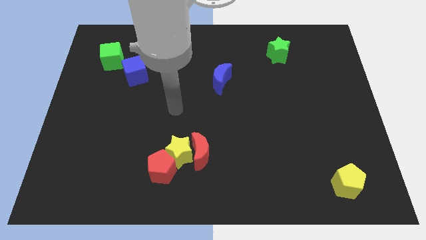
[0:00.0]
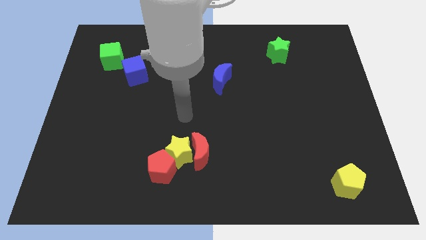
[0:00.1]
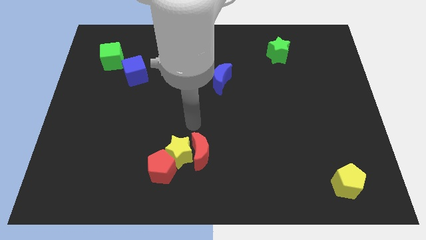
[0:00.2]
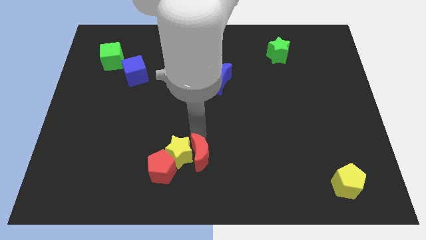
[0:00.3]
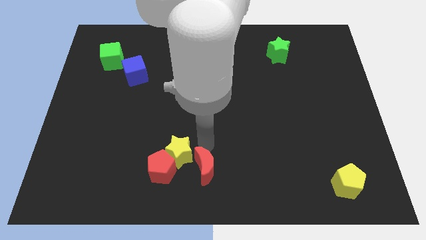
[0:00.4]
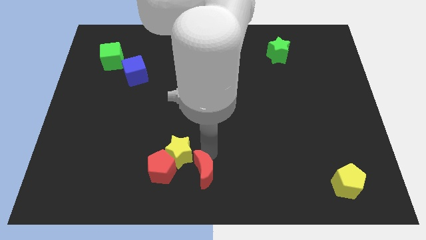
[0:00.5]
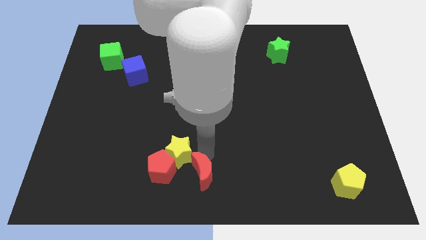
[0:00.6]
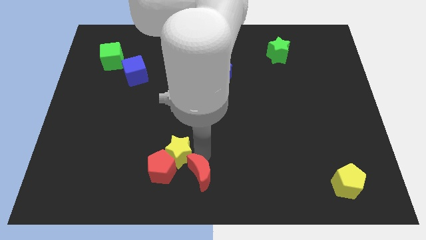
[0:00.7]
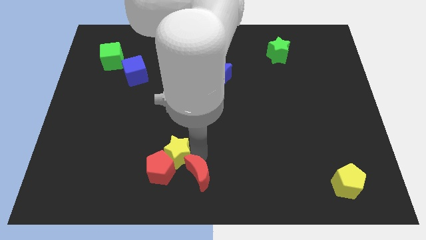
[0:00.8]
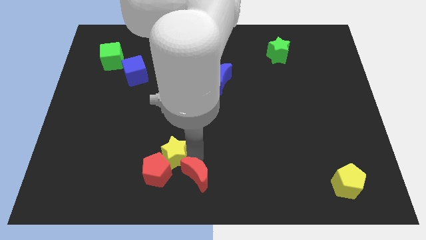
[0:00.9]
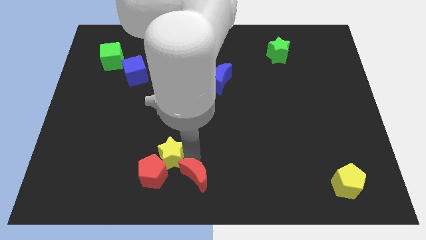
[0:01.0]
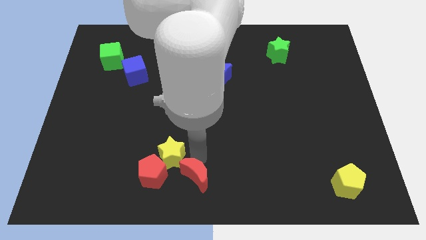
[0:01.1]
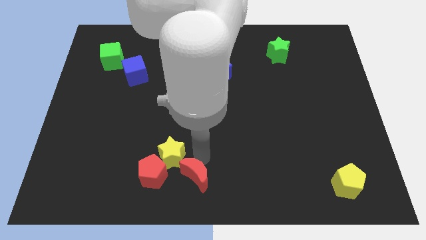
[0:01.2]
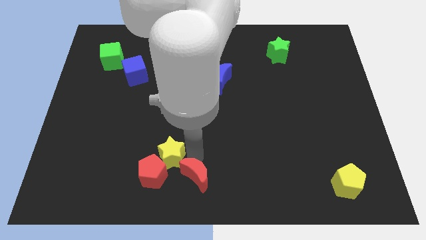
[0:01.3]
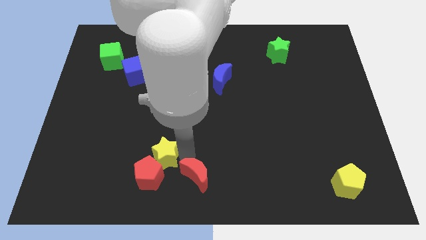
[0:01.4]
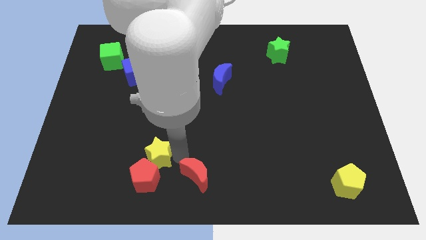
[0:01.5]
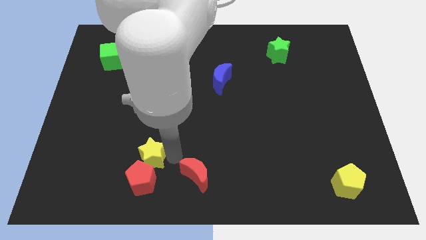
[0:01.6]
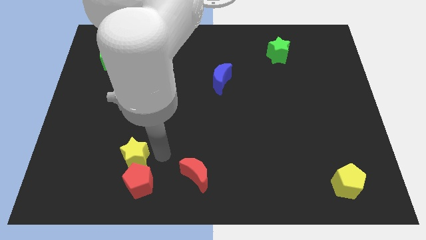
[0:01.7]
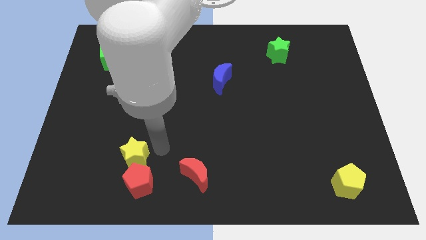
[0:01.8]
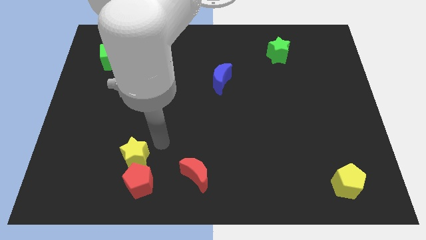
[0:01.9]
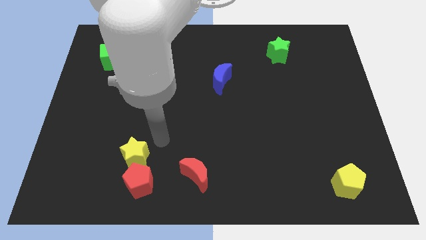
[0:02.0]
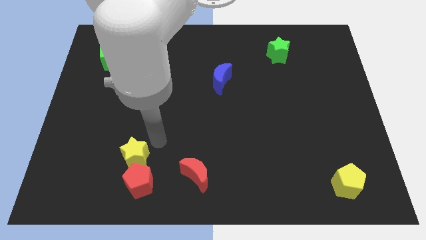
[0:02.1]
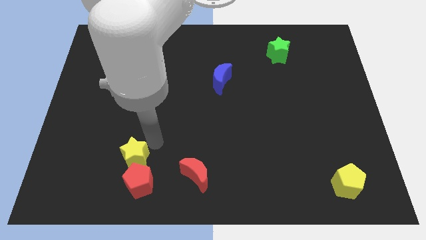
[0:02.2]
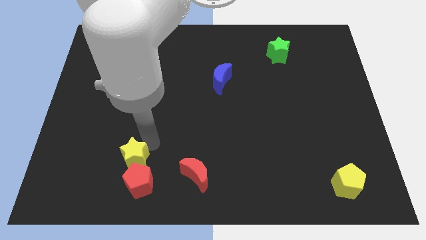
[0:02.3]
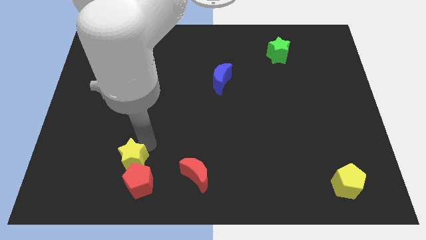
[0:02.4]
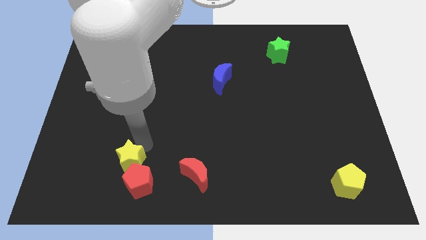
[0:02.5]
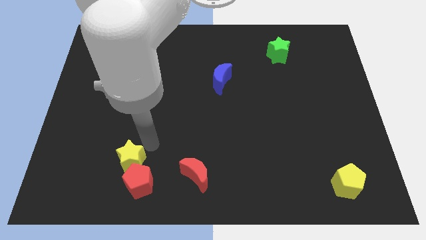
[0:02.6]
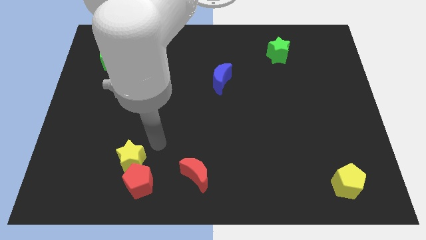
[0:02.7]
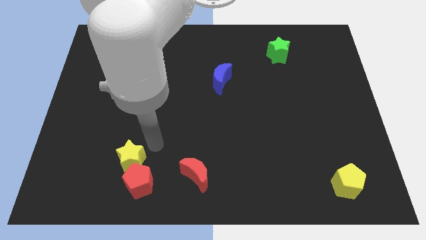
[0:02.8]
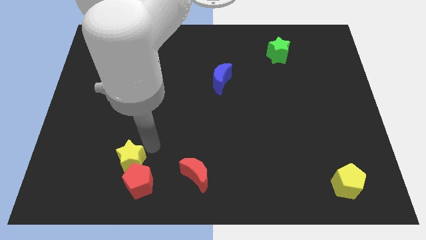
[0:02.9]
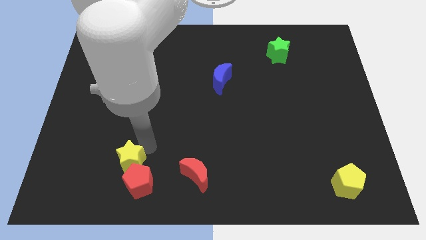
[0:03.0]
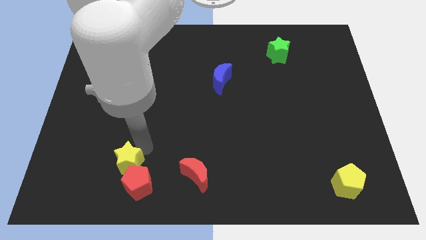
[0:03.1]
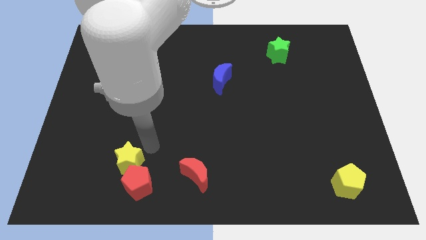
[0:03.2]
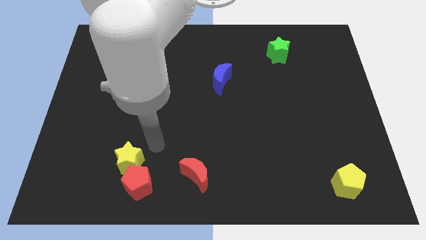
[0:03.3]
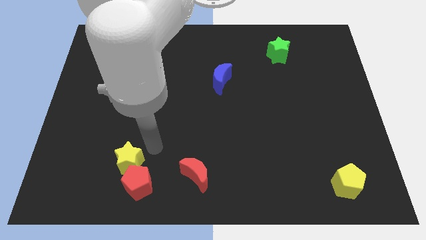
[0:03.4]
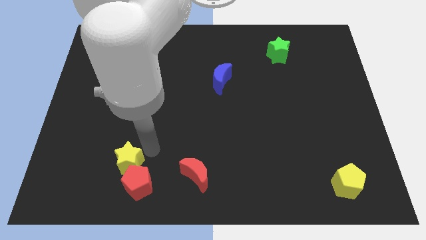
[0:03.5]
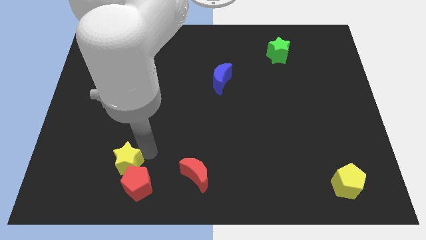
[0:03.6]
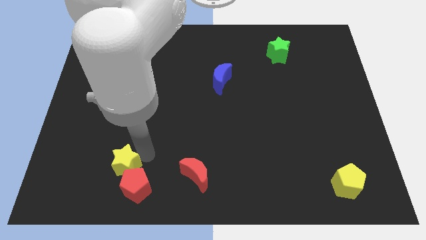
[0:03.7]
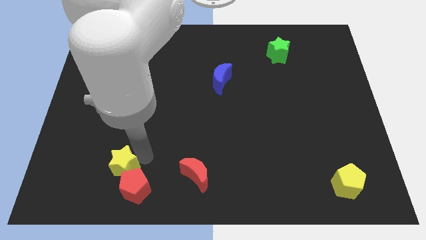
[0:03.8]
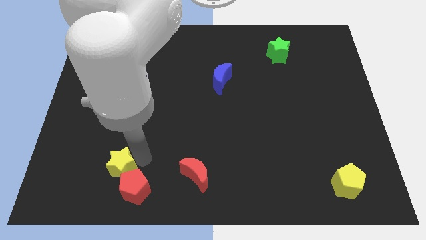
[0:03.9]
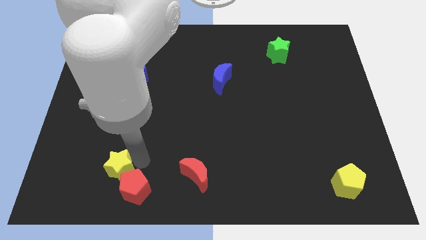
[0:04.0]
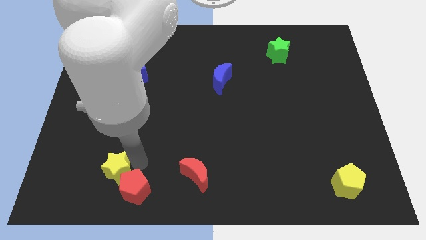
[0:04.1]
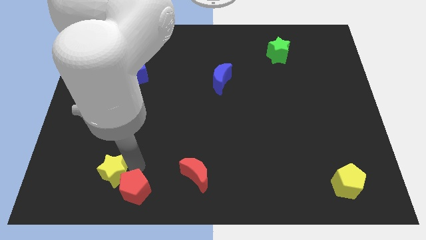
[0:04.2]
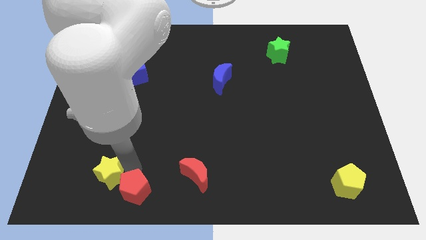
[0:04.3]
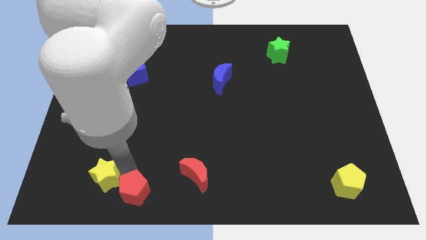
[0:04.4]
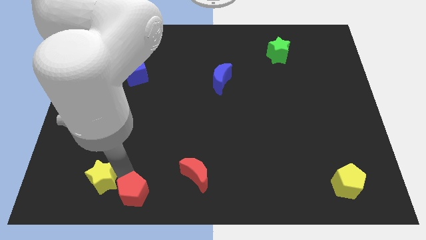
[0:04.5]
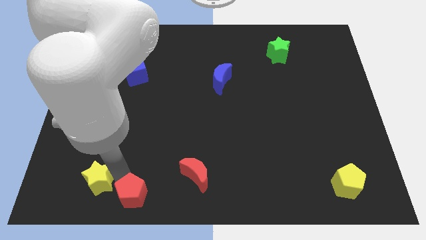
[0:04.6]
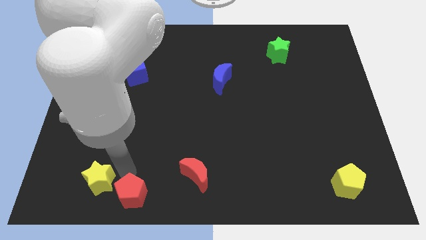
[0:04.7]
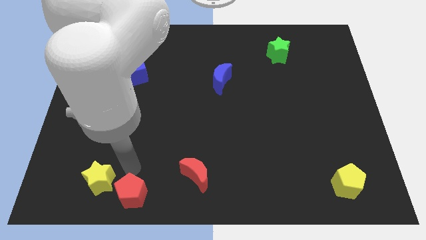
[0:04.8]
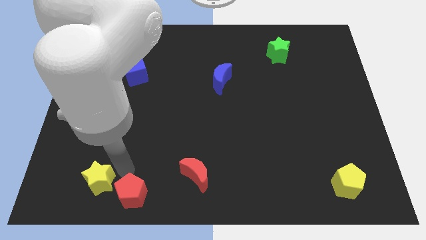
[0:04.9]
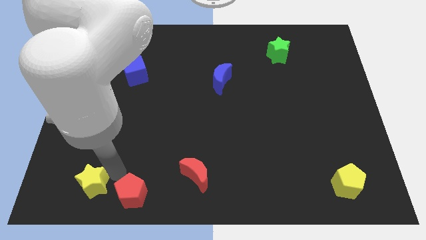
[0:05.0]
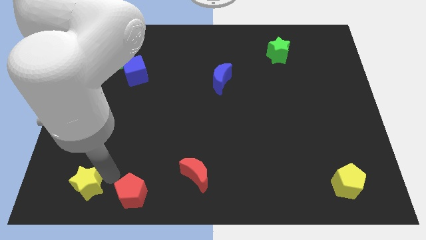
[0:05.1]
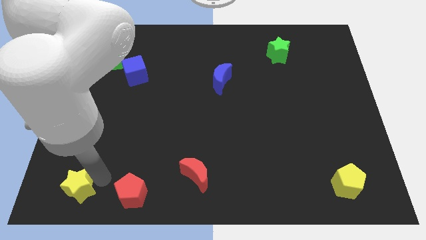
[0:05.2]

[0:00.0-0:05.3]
put the yellow star to the bottom left corner

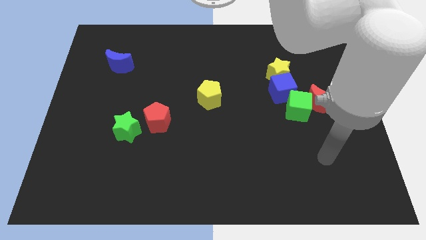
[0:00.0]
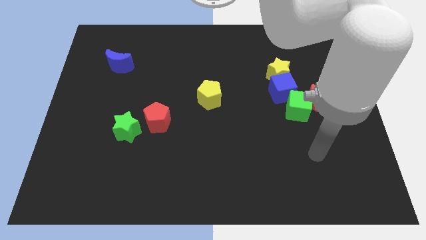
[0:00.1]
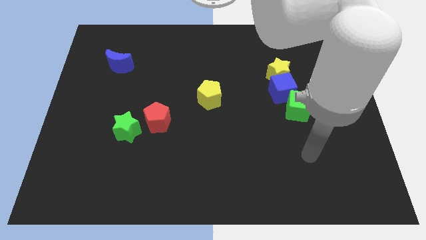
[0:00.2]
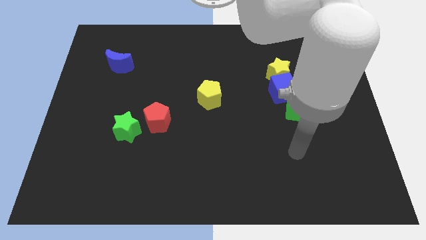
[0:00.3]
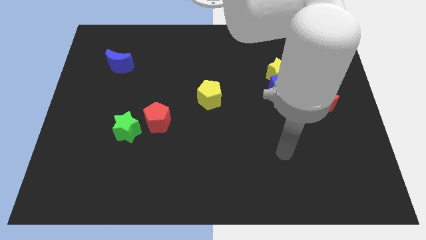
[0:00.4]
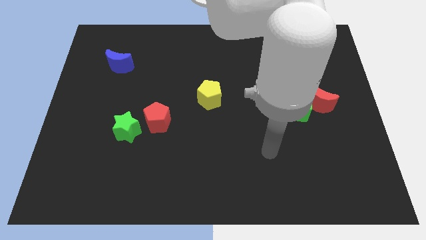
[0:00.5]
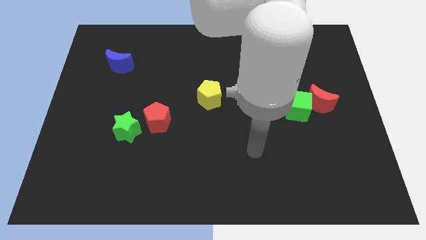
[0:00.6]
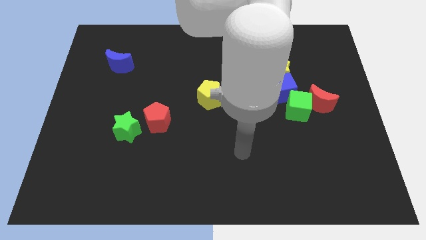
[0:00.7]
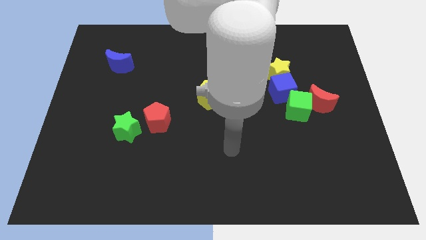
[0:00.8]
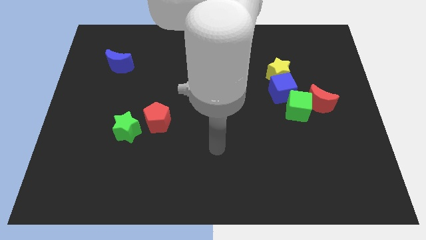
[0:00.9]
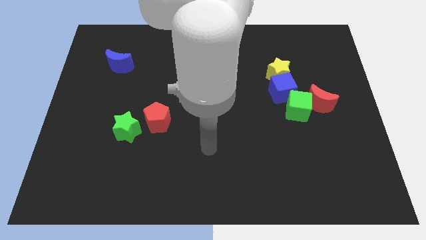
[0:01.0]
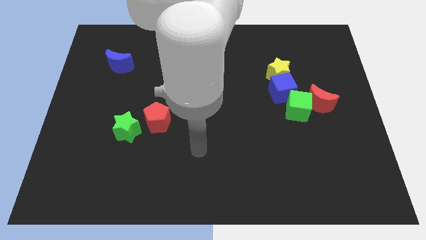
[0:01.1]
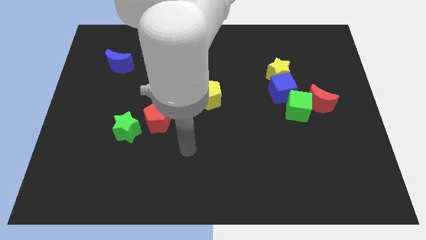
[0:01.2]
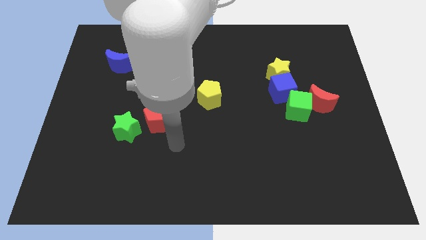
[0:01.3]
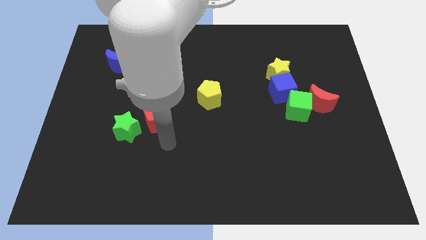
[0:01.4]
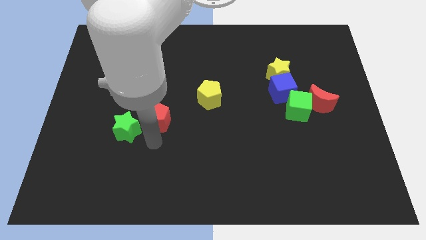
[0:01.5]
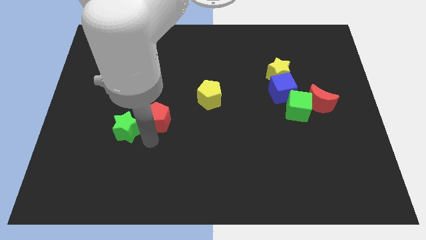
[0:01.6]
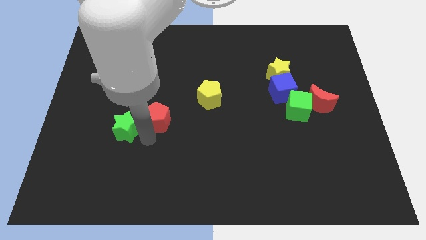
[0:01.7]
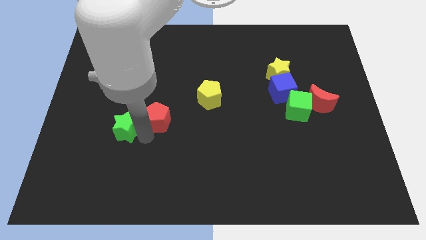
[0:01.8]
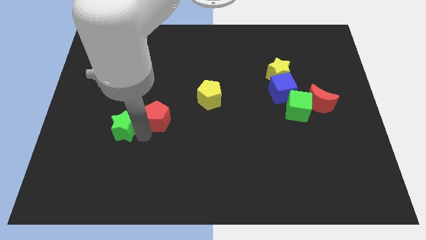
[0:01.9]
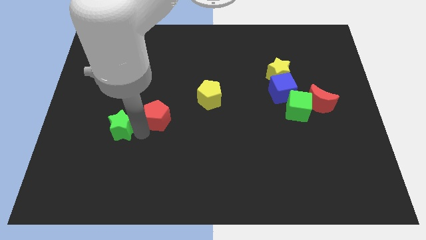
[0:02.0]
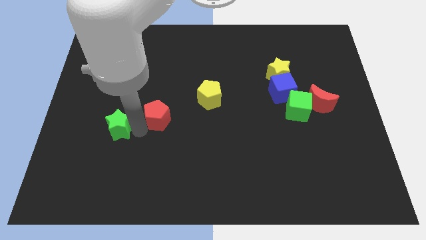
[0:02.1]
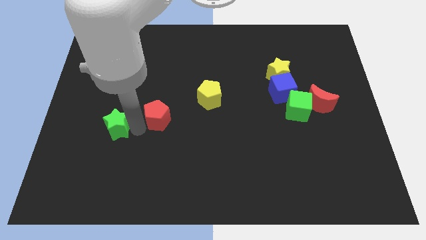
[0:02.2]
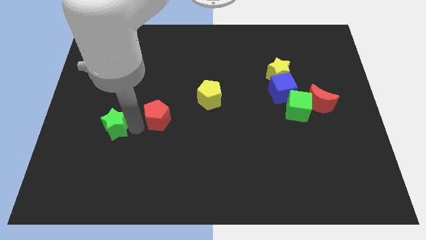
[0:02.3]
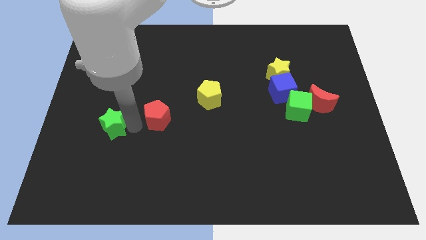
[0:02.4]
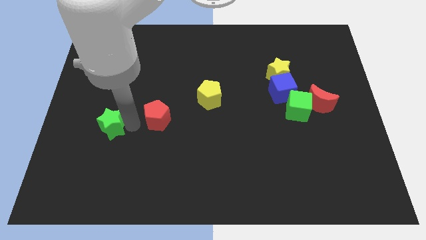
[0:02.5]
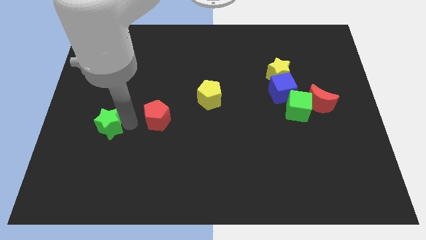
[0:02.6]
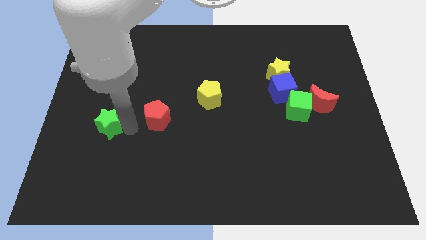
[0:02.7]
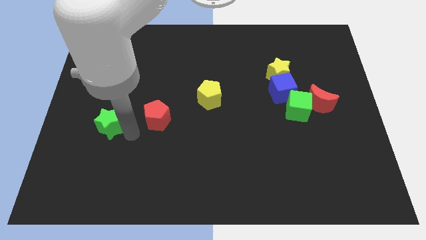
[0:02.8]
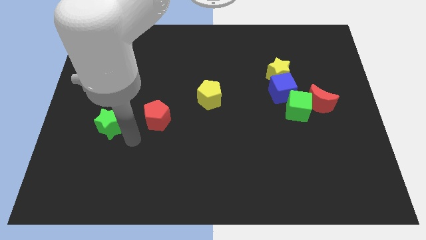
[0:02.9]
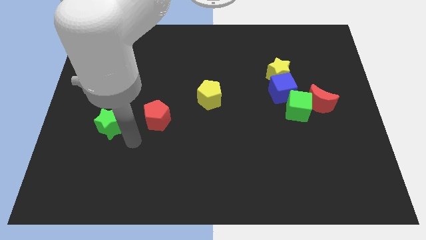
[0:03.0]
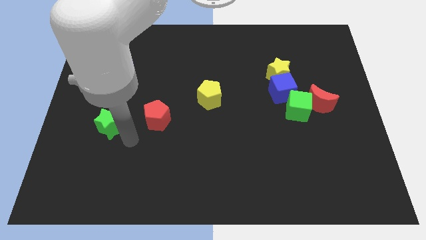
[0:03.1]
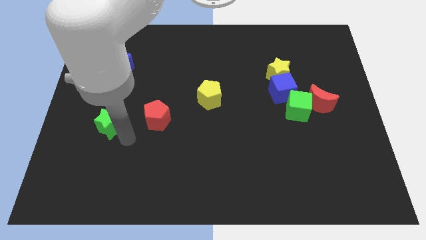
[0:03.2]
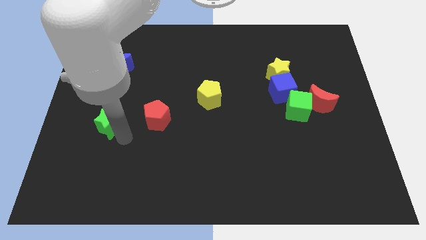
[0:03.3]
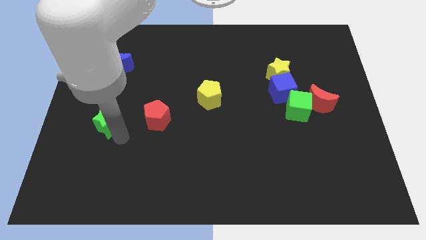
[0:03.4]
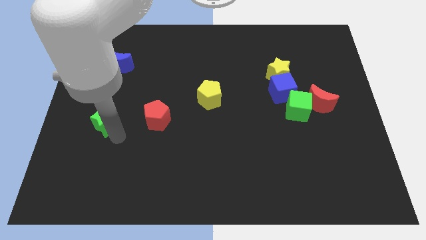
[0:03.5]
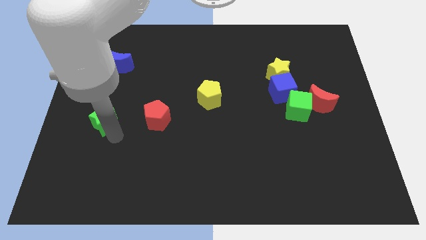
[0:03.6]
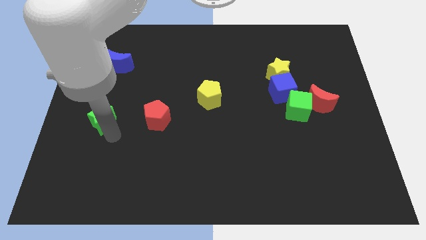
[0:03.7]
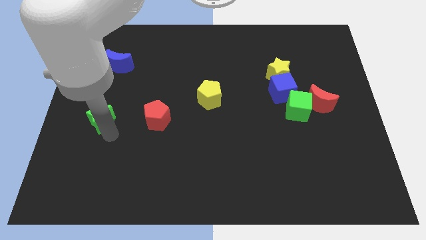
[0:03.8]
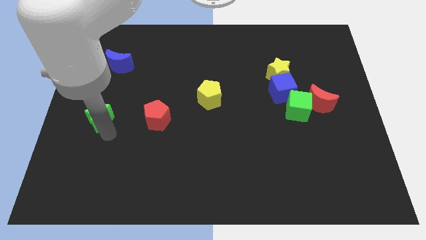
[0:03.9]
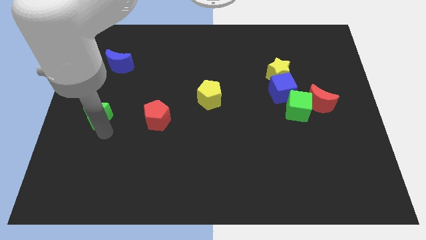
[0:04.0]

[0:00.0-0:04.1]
move the green star to the center left
